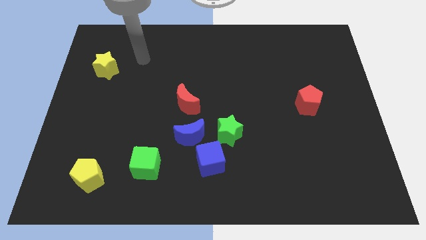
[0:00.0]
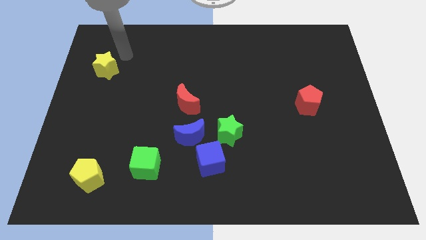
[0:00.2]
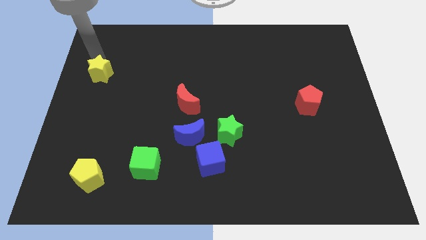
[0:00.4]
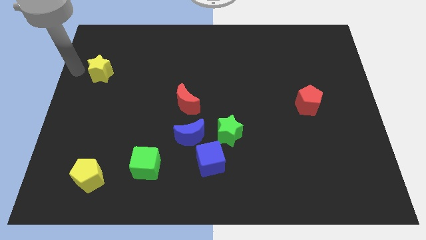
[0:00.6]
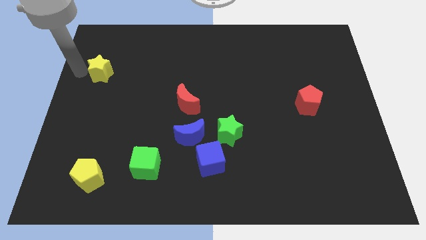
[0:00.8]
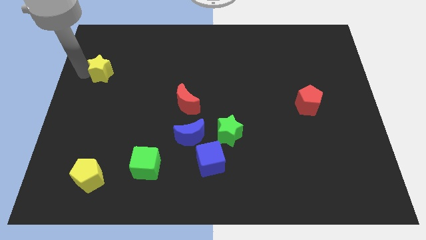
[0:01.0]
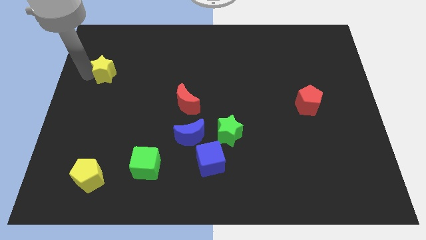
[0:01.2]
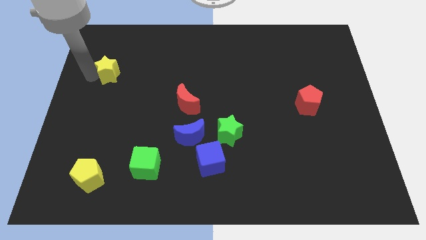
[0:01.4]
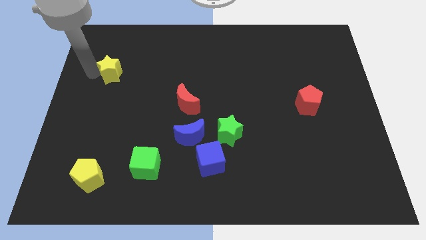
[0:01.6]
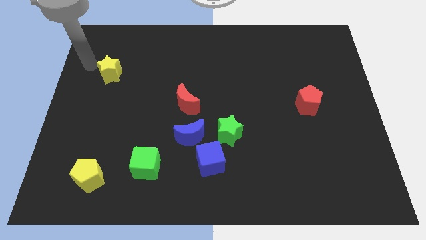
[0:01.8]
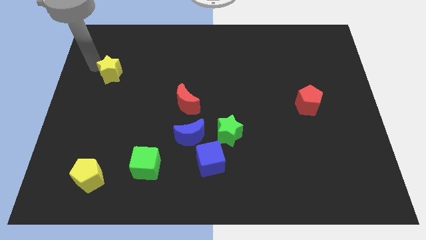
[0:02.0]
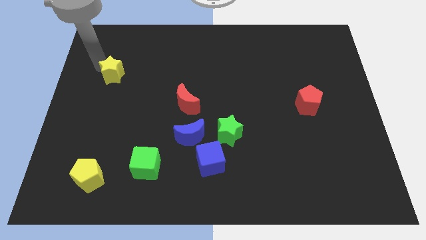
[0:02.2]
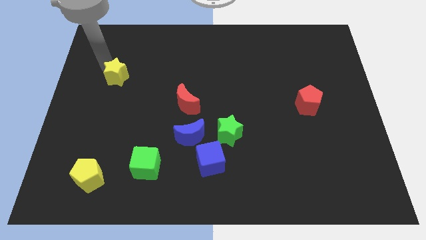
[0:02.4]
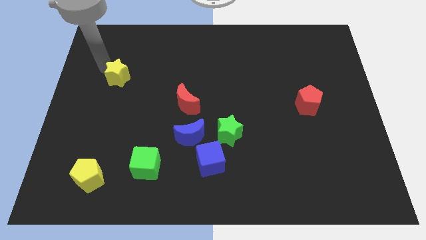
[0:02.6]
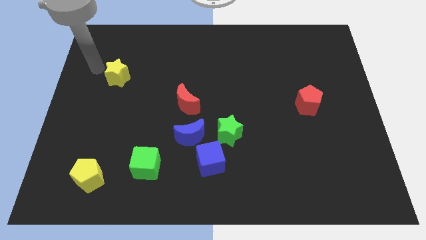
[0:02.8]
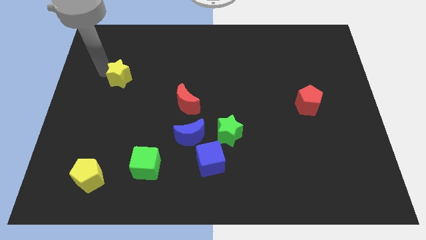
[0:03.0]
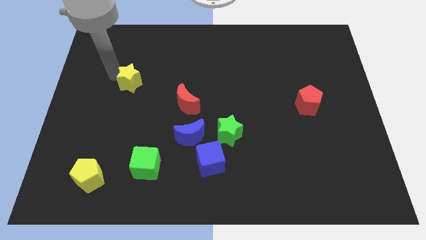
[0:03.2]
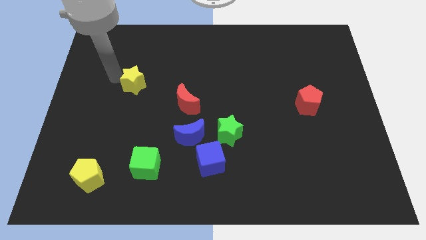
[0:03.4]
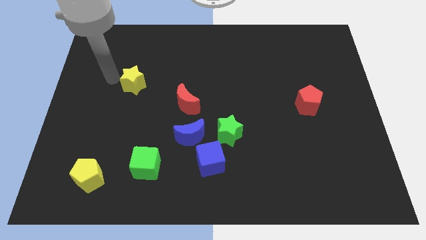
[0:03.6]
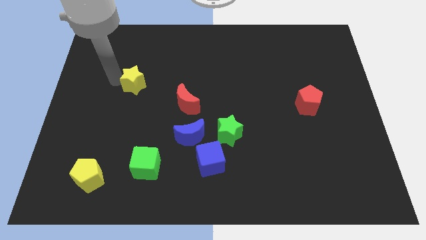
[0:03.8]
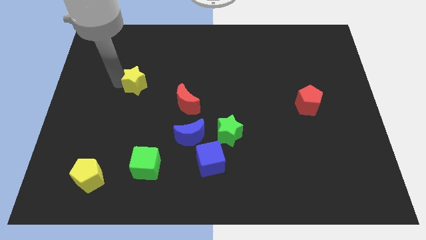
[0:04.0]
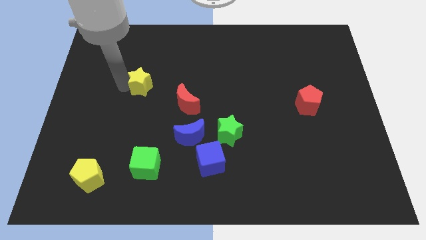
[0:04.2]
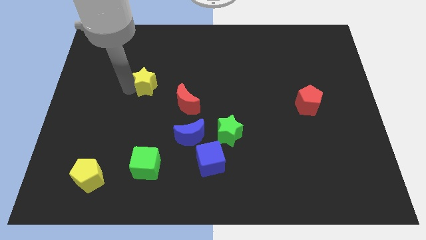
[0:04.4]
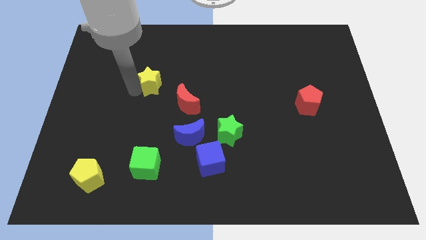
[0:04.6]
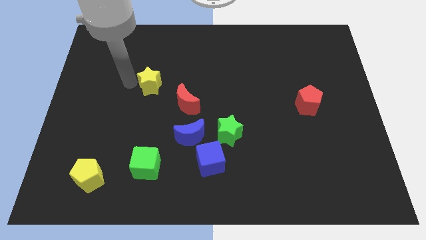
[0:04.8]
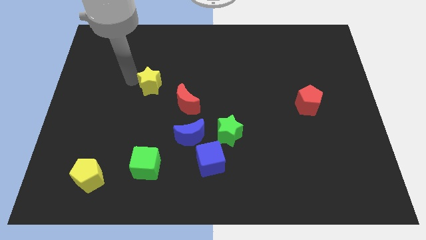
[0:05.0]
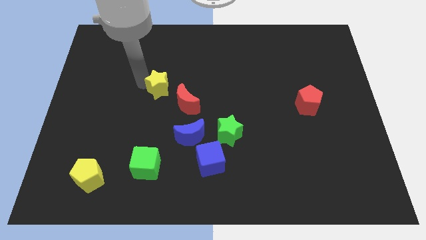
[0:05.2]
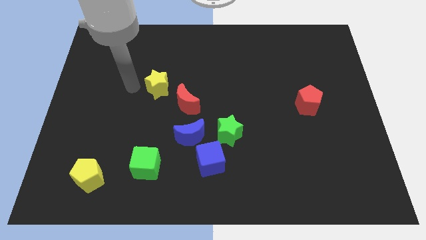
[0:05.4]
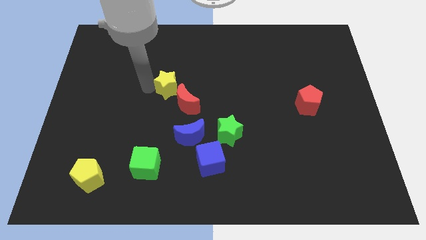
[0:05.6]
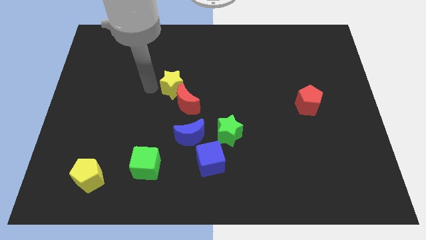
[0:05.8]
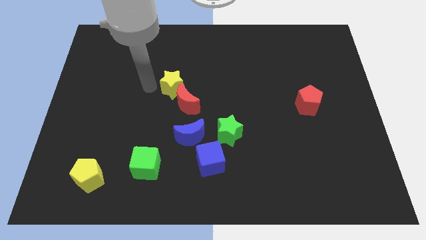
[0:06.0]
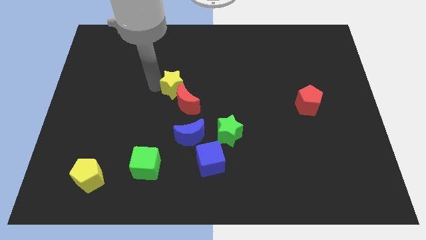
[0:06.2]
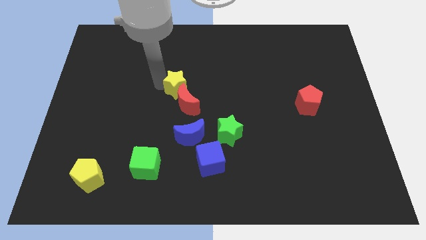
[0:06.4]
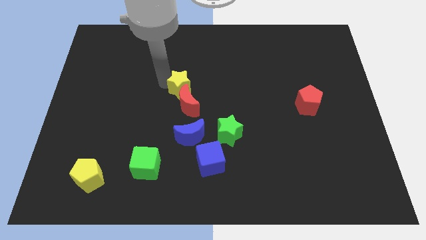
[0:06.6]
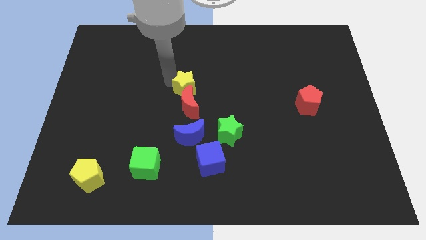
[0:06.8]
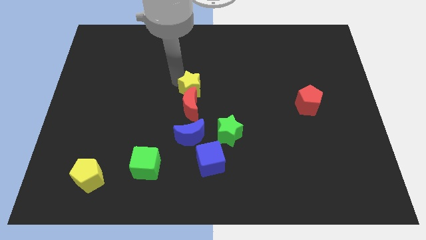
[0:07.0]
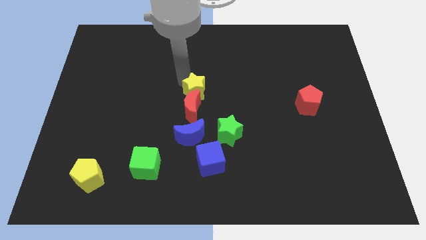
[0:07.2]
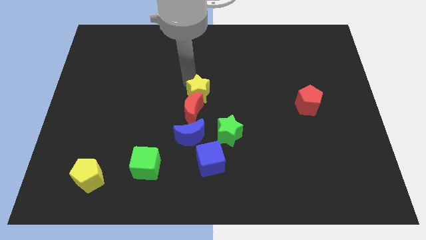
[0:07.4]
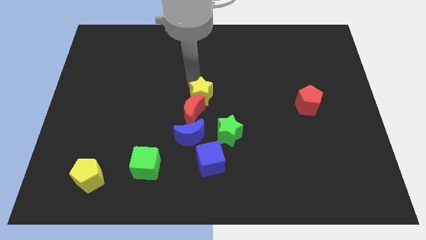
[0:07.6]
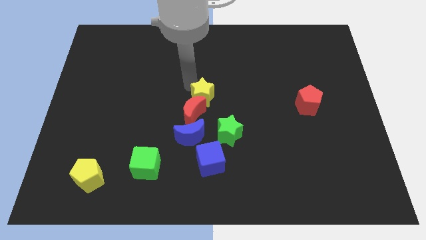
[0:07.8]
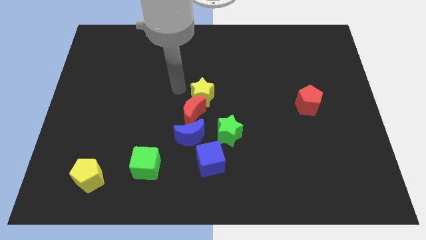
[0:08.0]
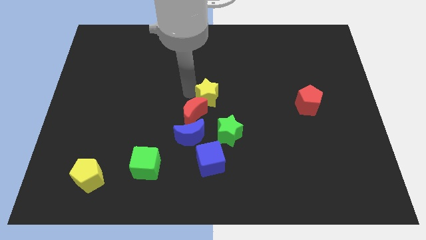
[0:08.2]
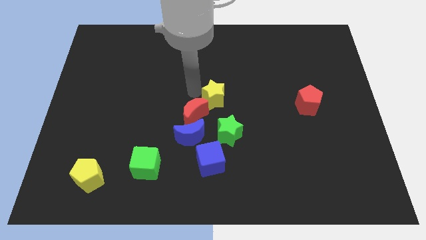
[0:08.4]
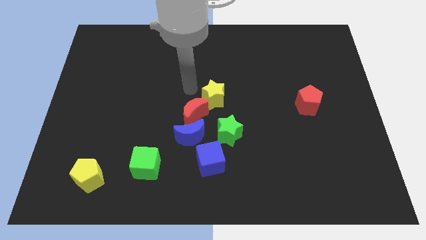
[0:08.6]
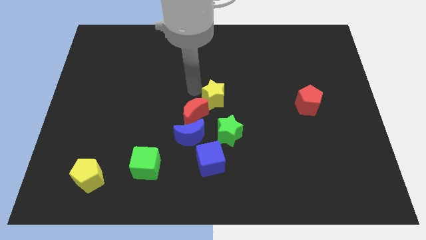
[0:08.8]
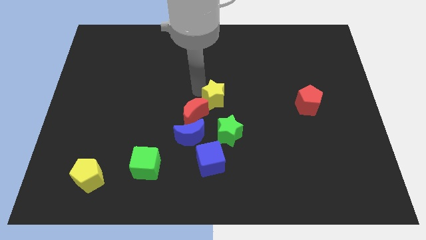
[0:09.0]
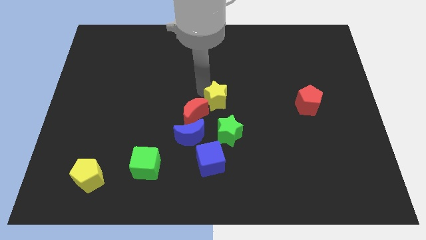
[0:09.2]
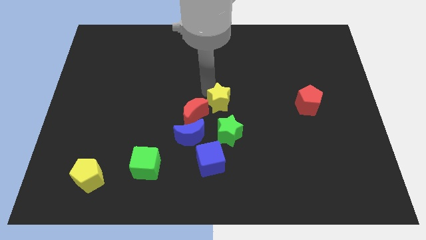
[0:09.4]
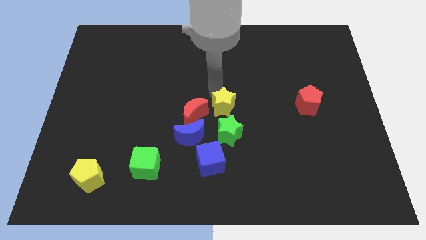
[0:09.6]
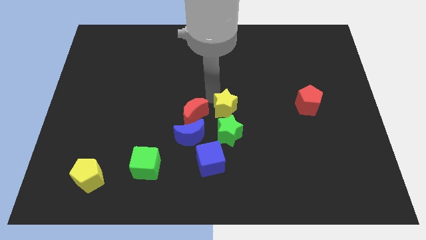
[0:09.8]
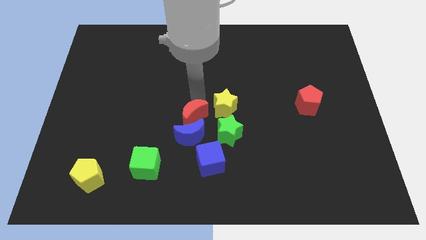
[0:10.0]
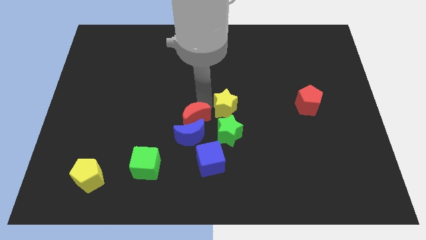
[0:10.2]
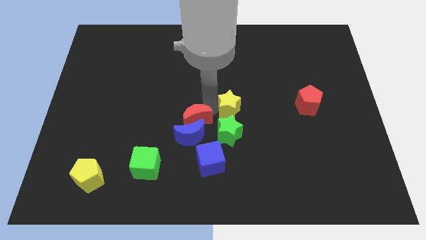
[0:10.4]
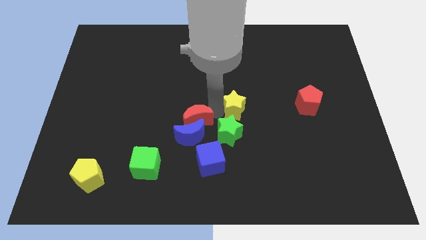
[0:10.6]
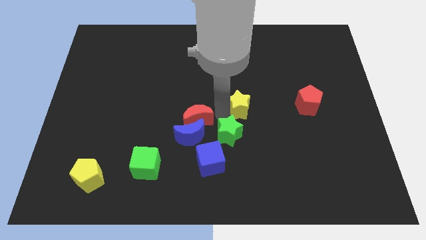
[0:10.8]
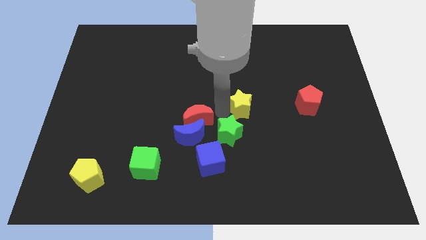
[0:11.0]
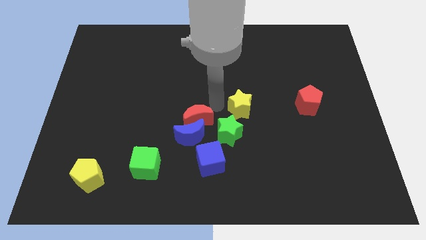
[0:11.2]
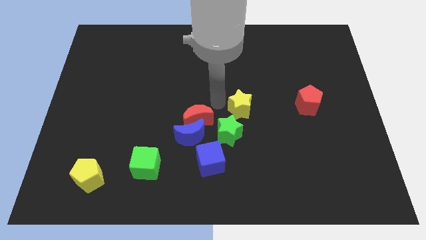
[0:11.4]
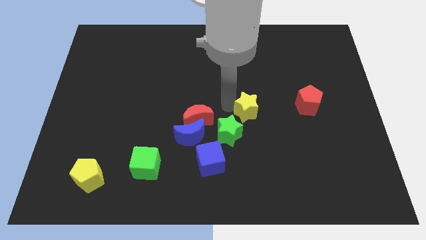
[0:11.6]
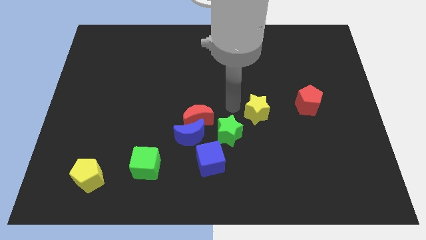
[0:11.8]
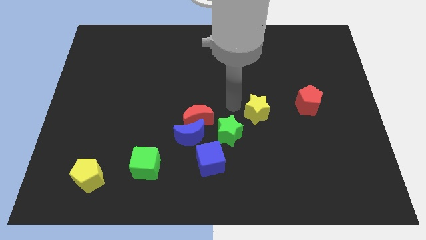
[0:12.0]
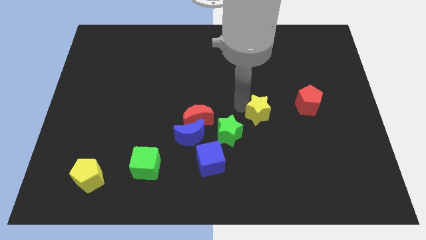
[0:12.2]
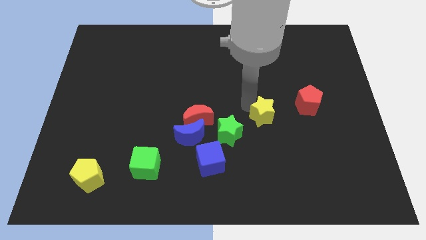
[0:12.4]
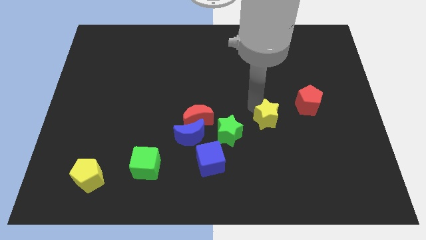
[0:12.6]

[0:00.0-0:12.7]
put the yellow star diagonally down and to the left of the red pentagon

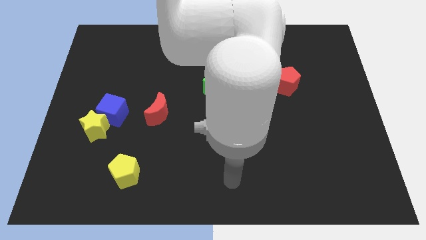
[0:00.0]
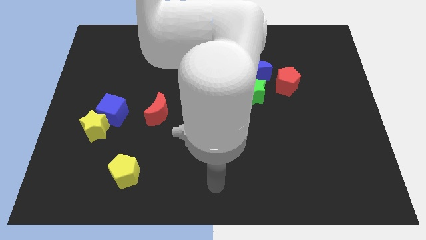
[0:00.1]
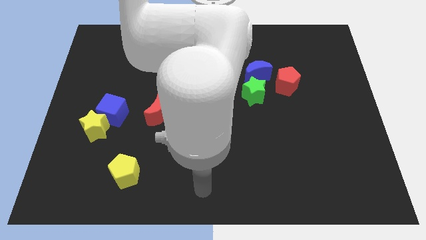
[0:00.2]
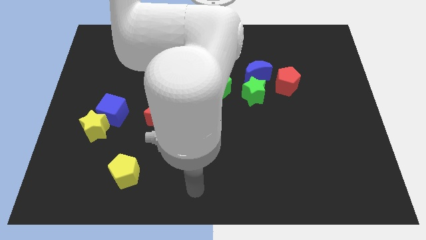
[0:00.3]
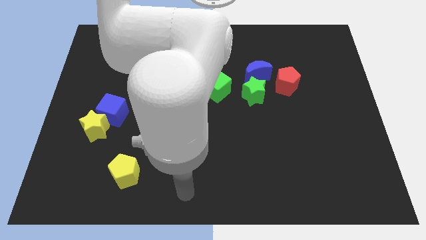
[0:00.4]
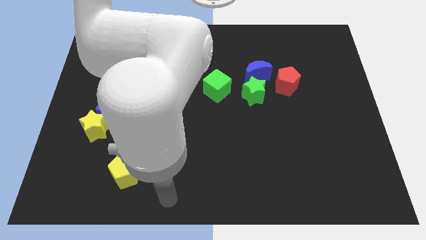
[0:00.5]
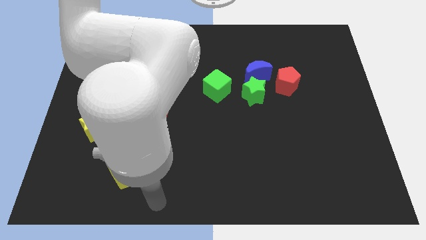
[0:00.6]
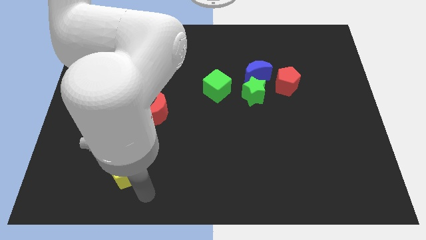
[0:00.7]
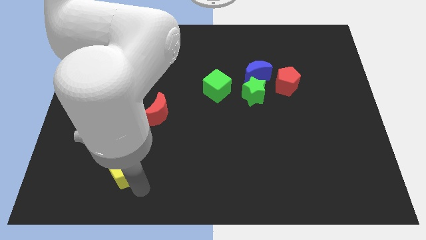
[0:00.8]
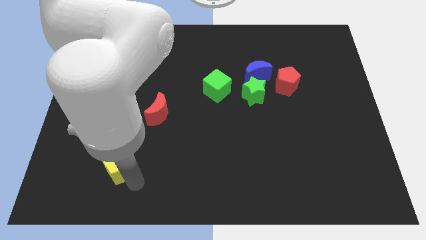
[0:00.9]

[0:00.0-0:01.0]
slide the yellow pentagon to the bottom side of the blue cube

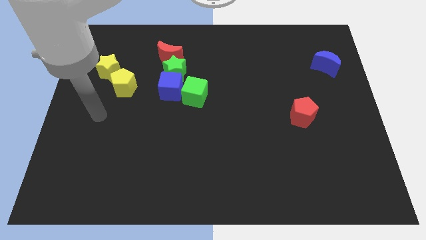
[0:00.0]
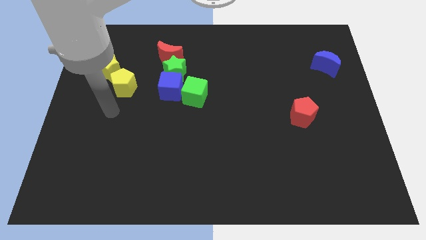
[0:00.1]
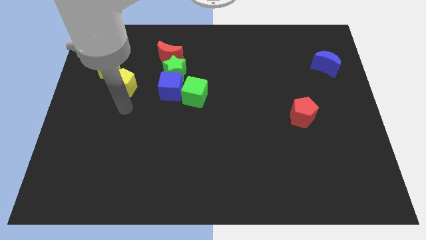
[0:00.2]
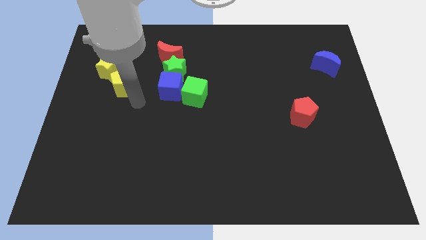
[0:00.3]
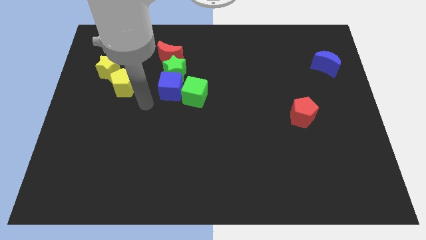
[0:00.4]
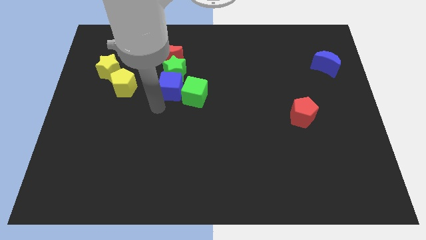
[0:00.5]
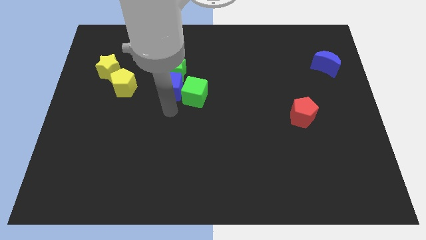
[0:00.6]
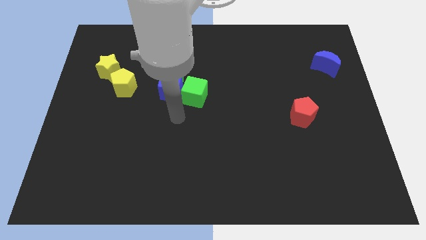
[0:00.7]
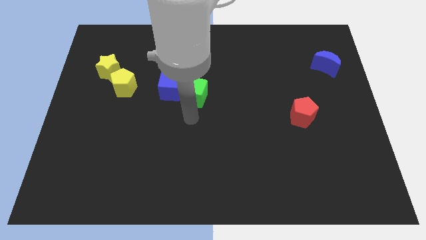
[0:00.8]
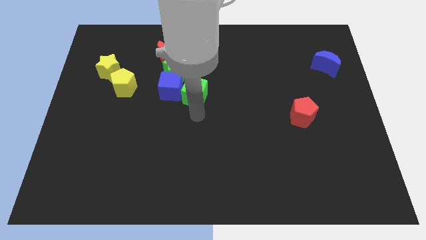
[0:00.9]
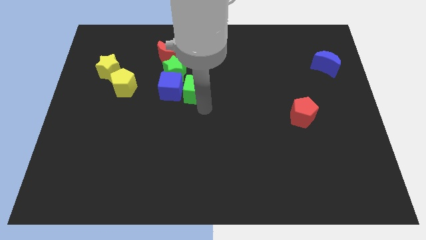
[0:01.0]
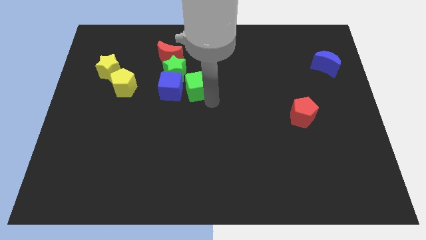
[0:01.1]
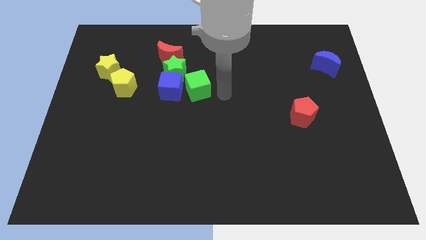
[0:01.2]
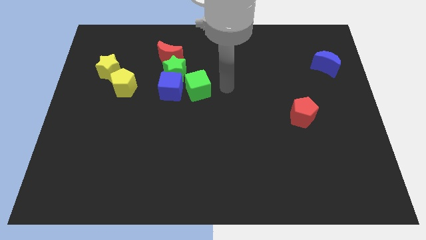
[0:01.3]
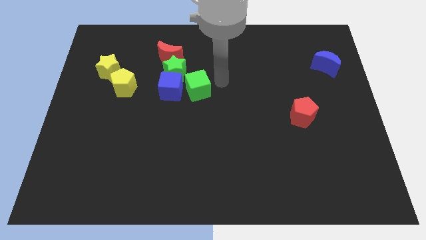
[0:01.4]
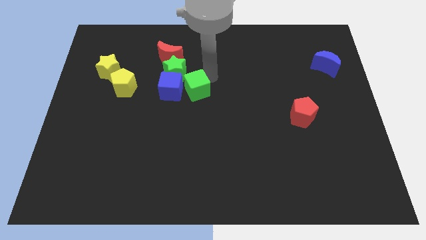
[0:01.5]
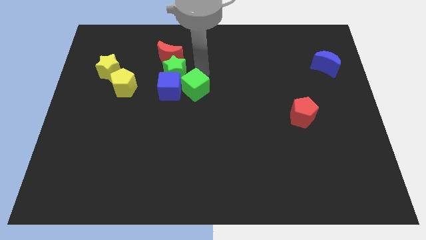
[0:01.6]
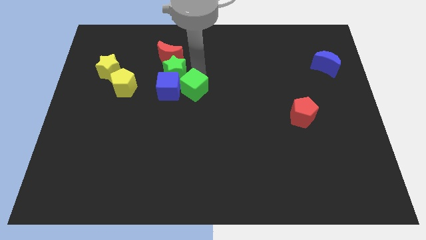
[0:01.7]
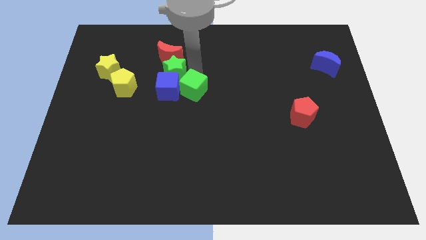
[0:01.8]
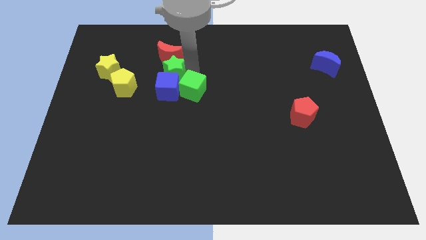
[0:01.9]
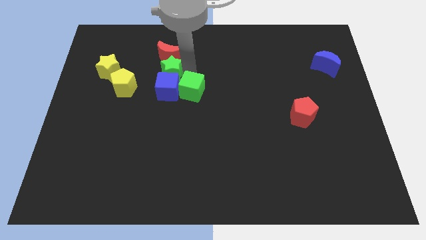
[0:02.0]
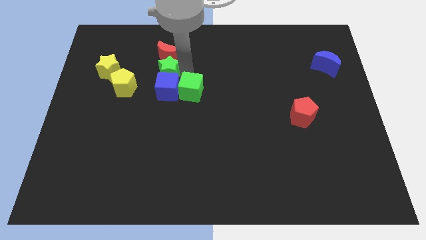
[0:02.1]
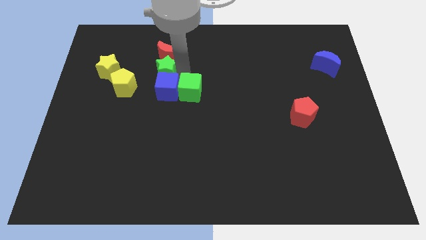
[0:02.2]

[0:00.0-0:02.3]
push the green star to the top right of the yellow pentagon
